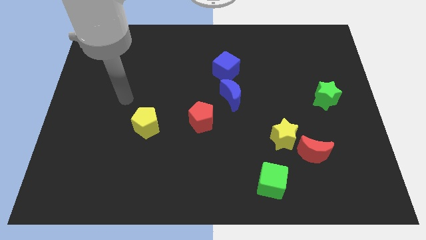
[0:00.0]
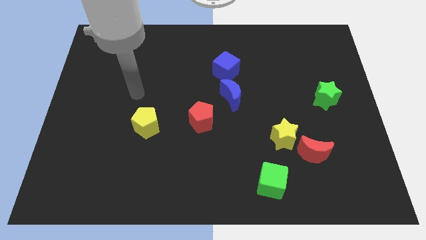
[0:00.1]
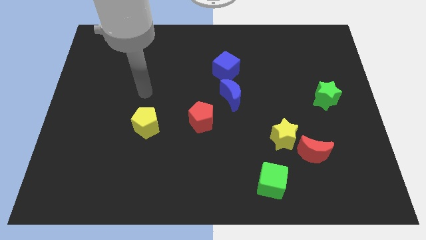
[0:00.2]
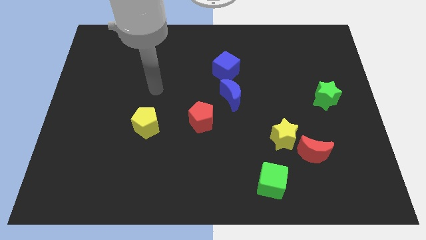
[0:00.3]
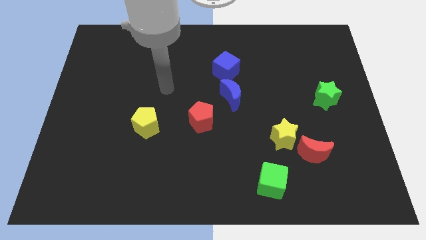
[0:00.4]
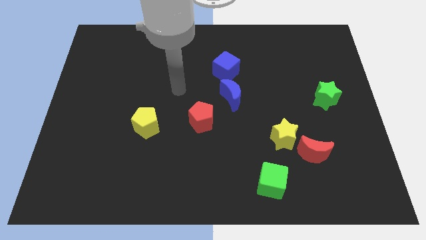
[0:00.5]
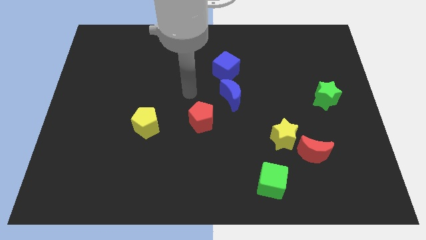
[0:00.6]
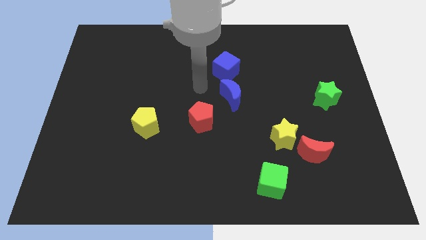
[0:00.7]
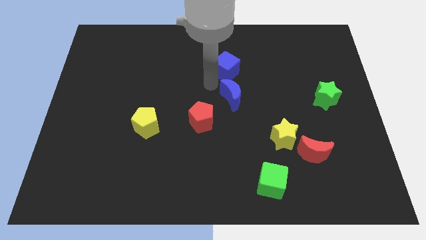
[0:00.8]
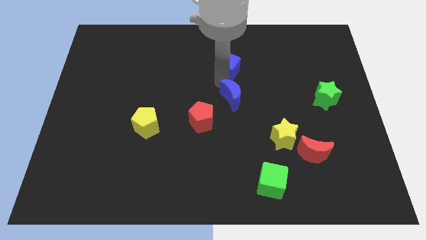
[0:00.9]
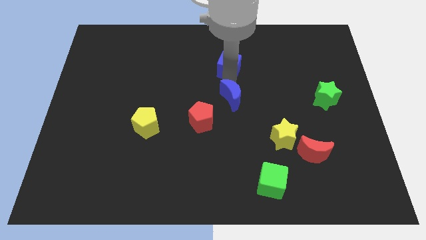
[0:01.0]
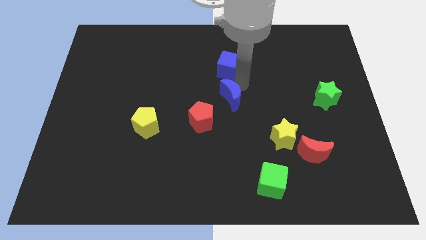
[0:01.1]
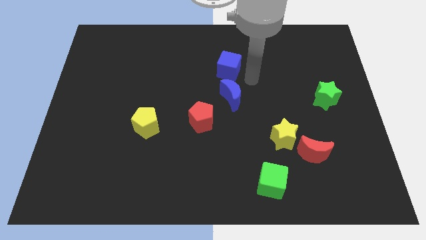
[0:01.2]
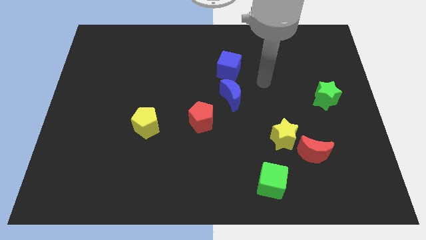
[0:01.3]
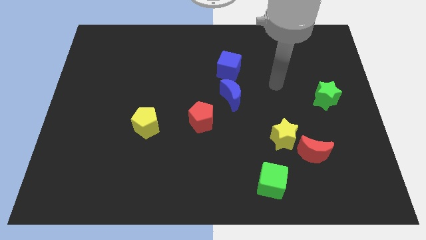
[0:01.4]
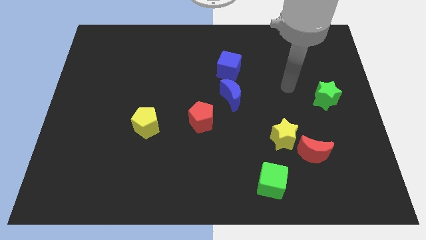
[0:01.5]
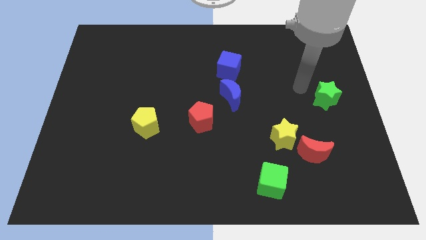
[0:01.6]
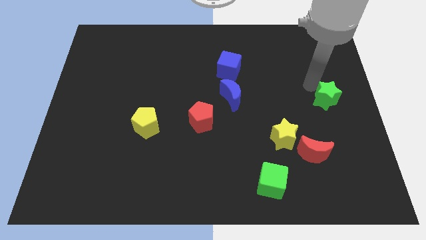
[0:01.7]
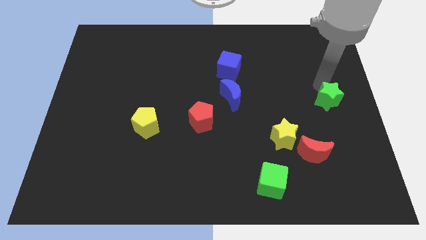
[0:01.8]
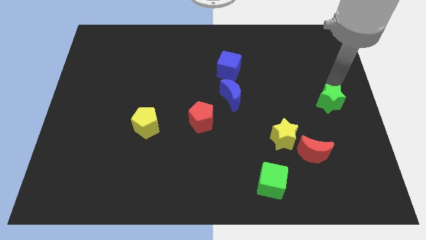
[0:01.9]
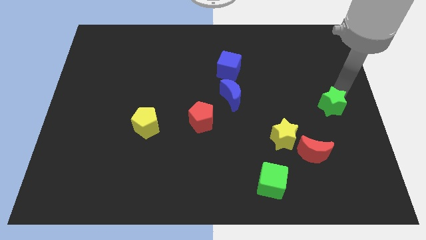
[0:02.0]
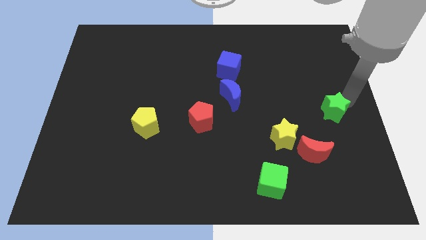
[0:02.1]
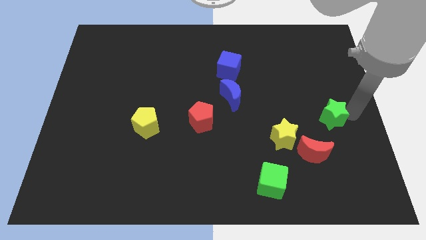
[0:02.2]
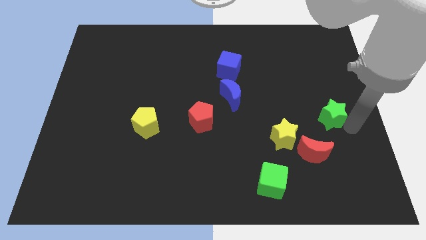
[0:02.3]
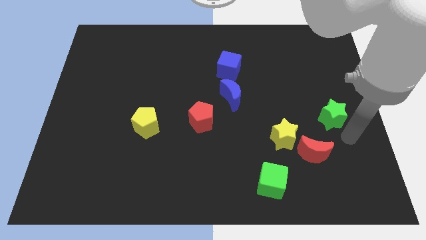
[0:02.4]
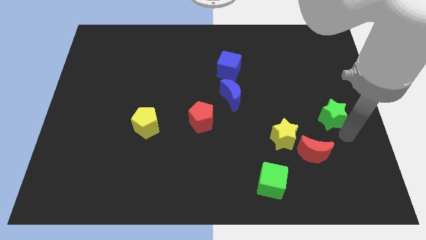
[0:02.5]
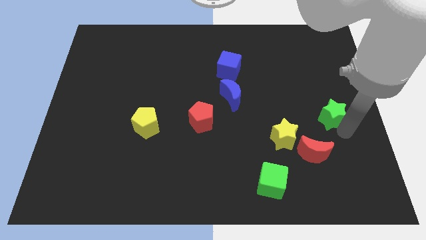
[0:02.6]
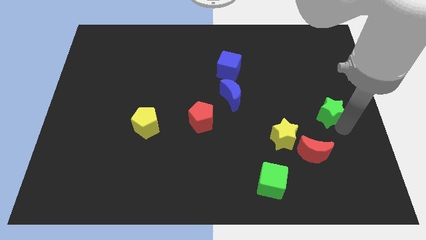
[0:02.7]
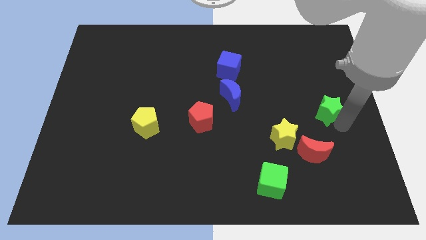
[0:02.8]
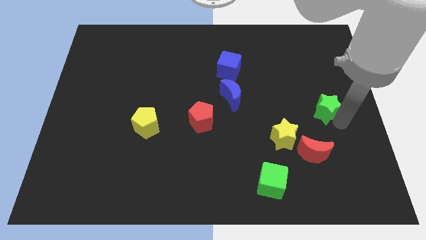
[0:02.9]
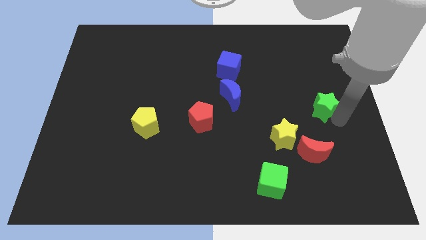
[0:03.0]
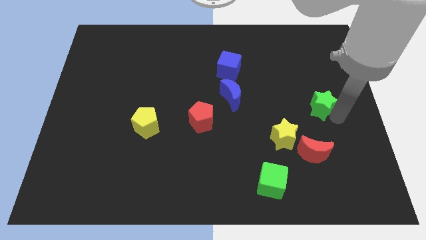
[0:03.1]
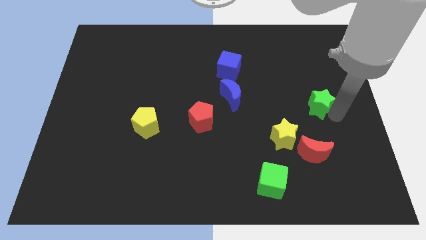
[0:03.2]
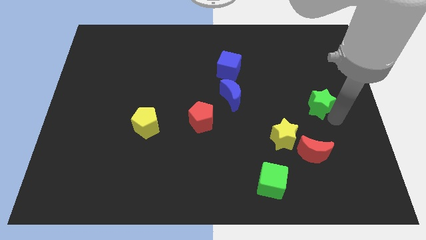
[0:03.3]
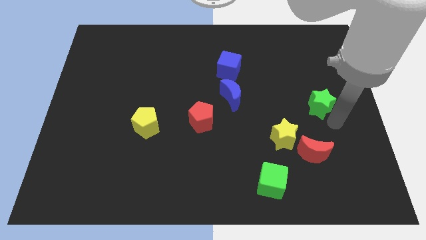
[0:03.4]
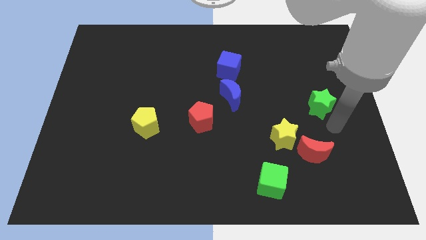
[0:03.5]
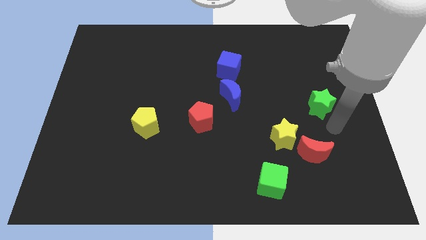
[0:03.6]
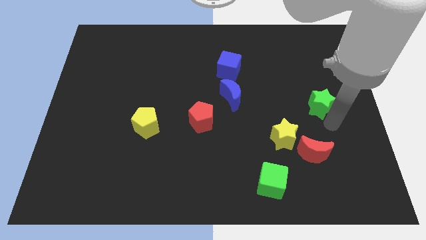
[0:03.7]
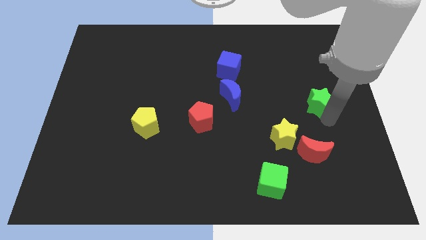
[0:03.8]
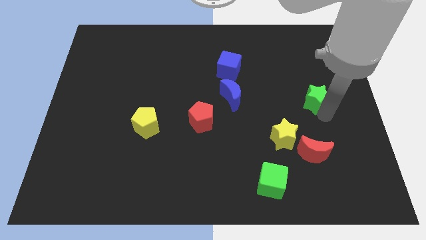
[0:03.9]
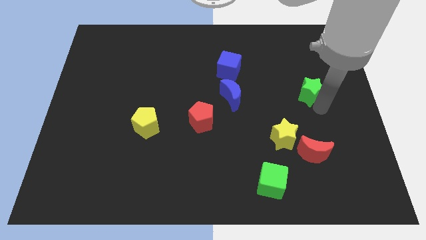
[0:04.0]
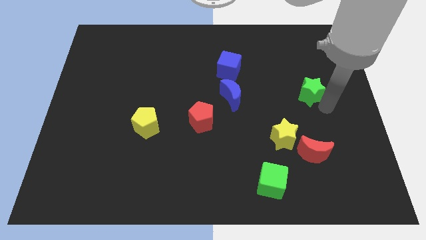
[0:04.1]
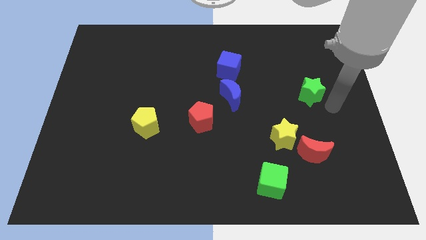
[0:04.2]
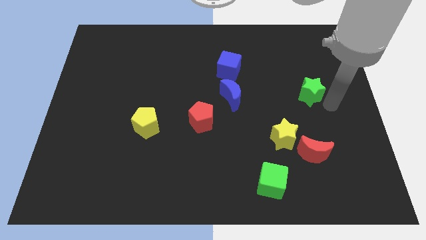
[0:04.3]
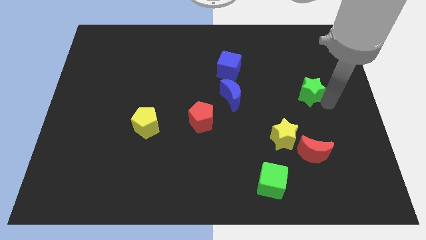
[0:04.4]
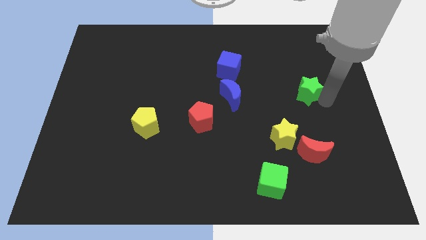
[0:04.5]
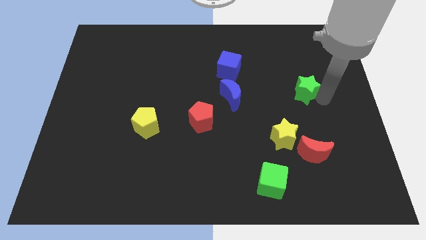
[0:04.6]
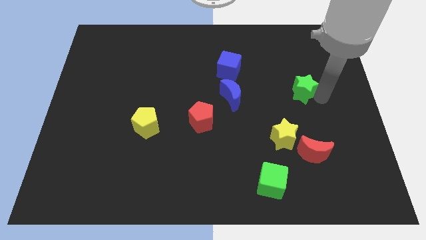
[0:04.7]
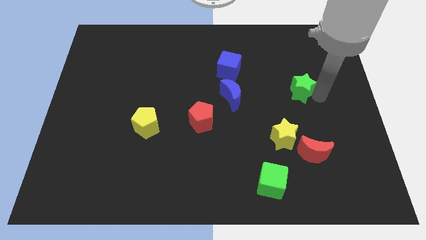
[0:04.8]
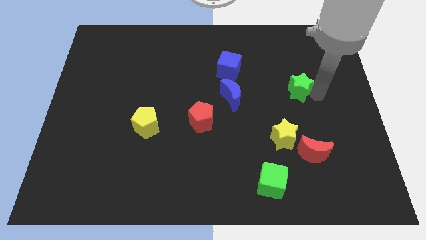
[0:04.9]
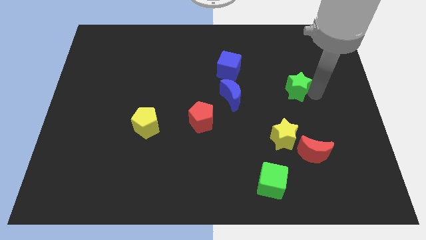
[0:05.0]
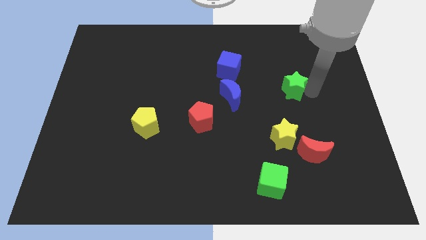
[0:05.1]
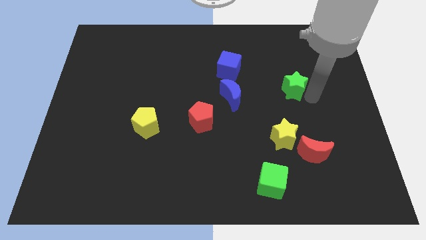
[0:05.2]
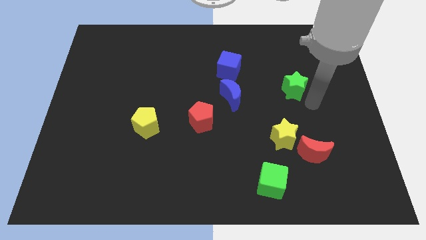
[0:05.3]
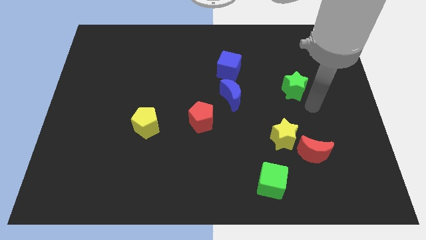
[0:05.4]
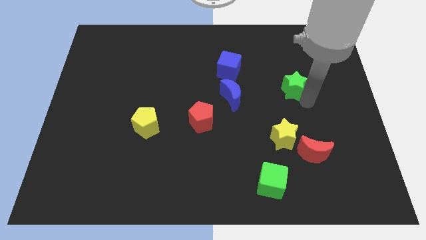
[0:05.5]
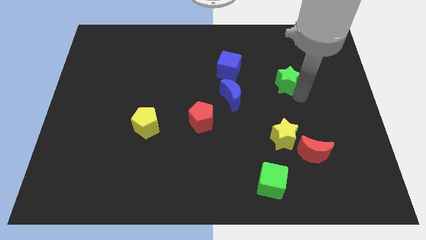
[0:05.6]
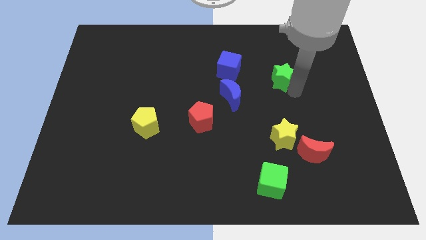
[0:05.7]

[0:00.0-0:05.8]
slide the green star to the right side of the blue cube

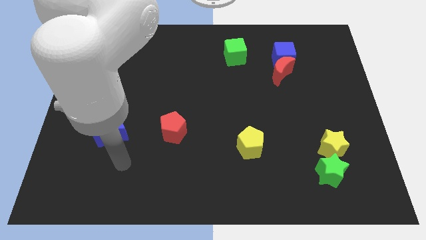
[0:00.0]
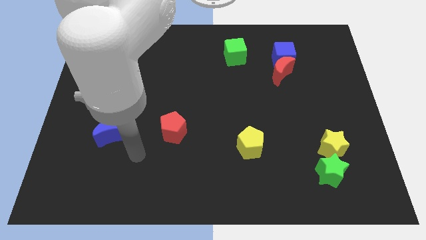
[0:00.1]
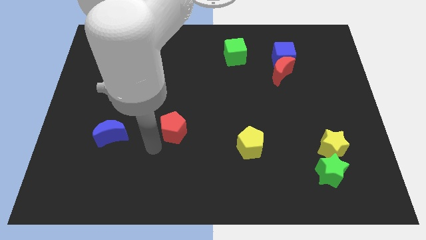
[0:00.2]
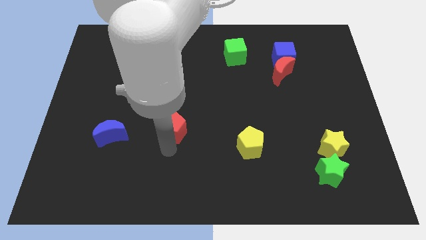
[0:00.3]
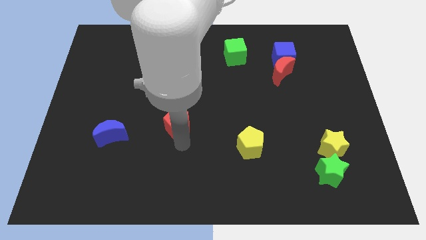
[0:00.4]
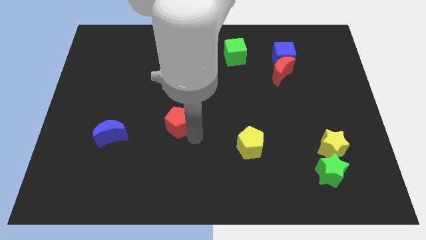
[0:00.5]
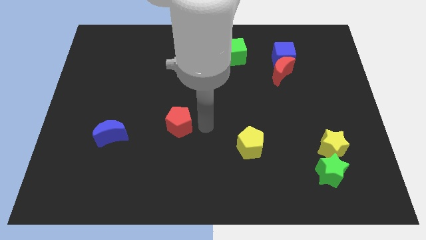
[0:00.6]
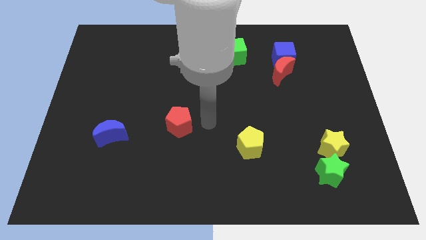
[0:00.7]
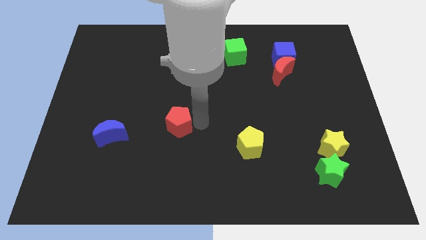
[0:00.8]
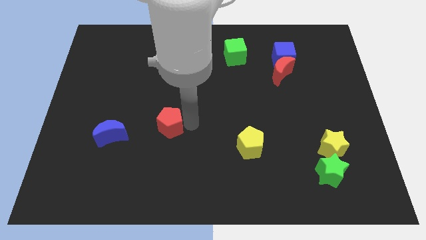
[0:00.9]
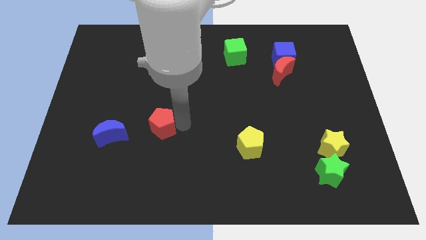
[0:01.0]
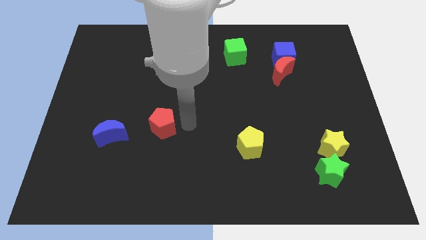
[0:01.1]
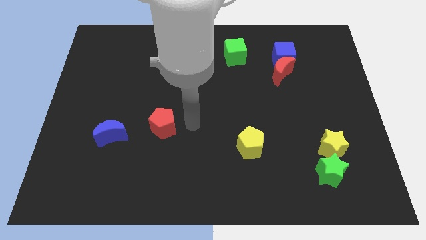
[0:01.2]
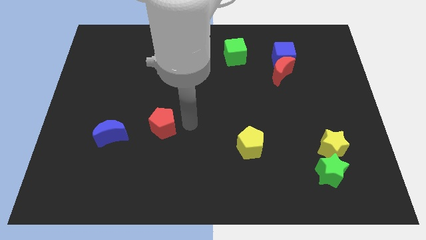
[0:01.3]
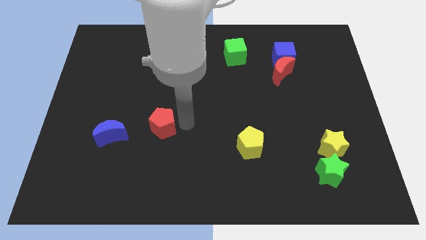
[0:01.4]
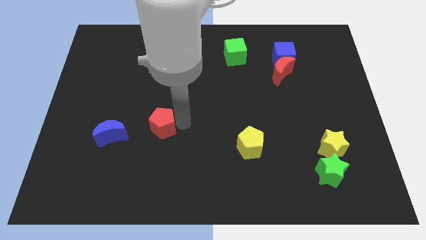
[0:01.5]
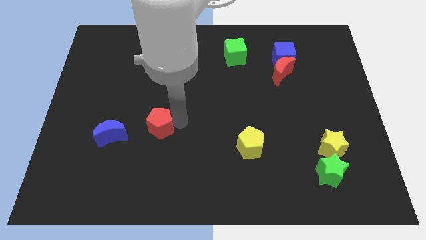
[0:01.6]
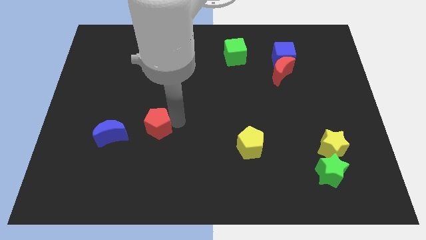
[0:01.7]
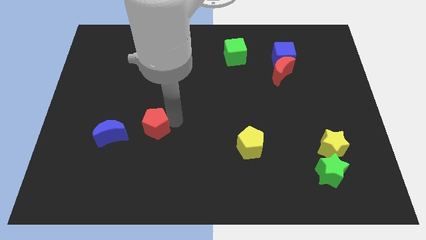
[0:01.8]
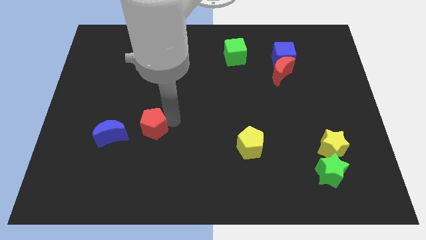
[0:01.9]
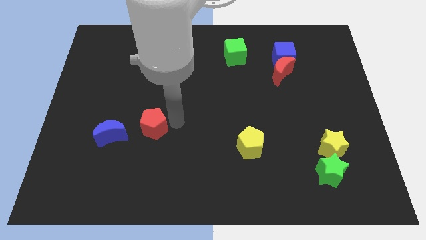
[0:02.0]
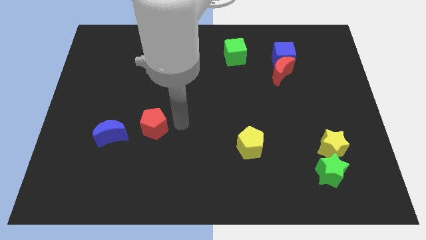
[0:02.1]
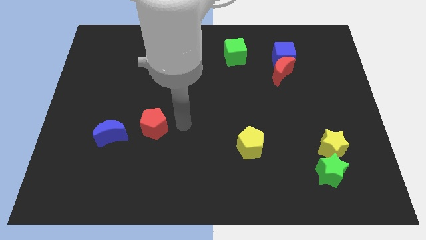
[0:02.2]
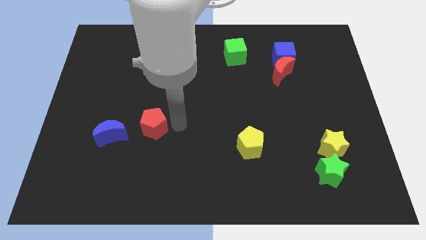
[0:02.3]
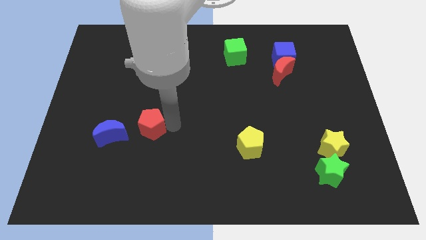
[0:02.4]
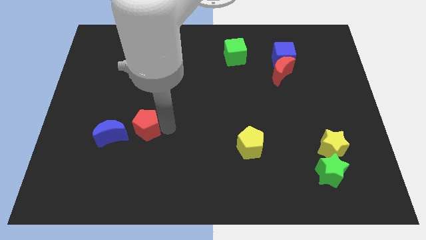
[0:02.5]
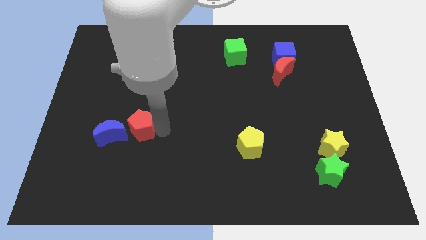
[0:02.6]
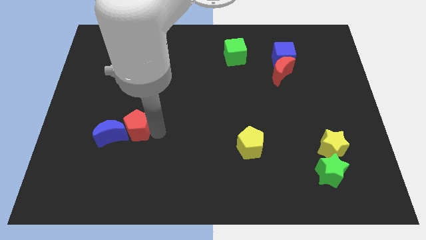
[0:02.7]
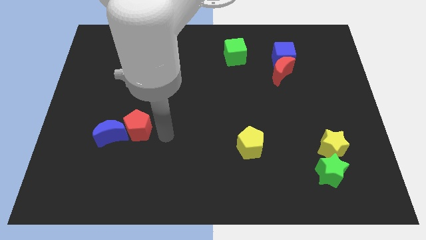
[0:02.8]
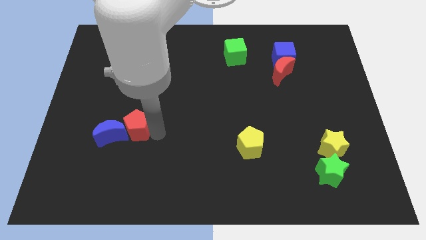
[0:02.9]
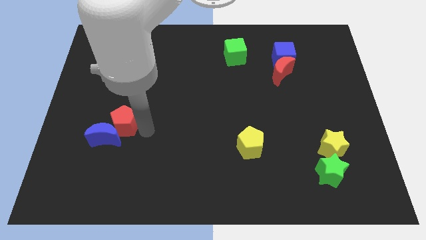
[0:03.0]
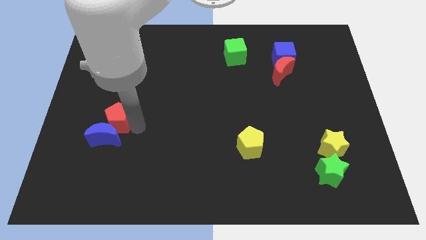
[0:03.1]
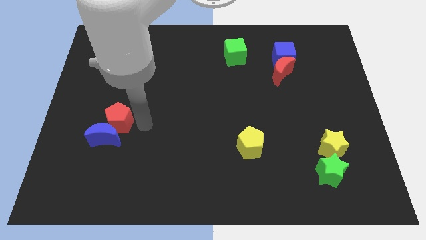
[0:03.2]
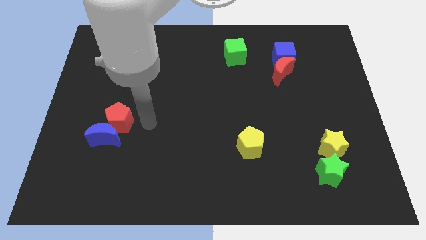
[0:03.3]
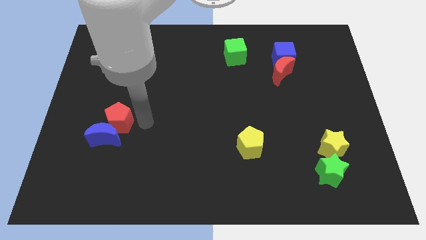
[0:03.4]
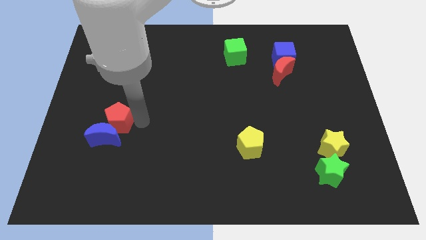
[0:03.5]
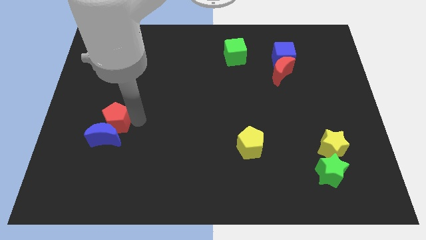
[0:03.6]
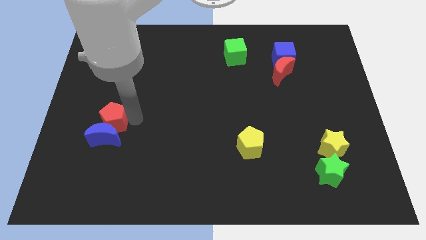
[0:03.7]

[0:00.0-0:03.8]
put the red pentagon to the top left side of the blue moon
